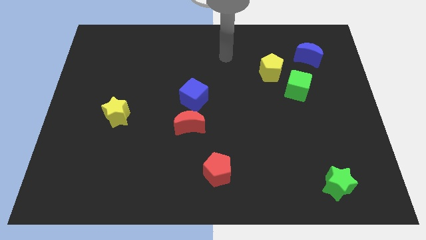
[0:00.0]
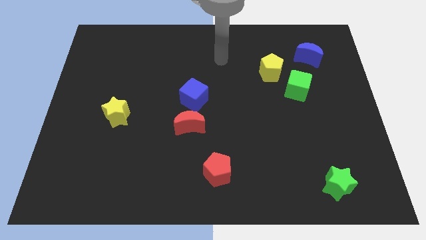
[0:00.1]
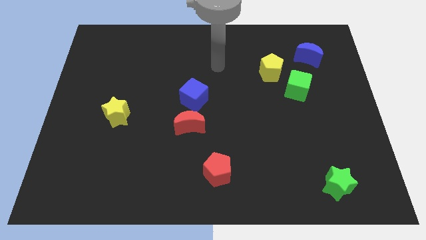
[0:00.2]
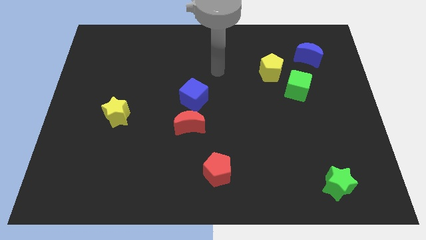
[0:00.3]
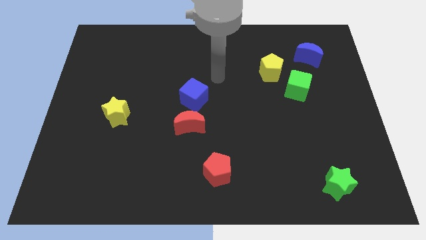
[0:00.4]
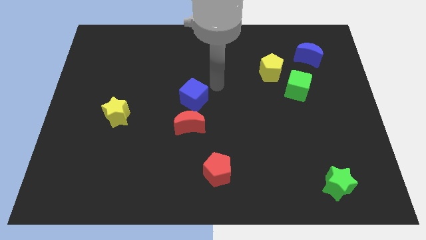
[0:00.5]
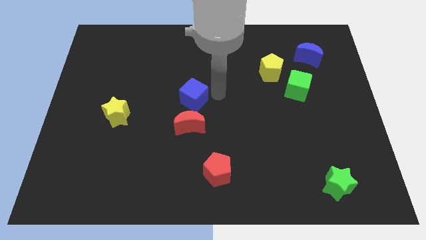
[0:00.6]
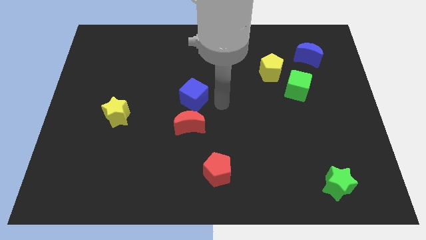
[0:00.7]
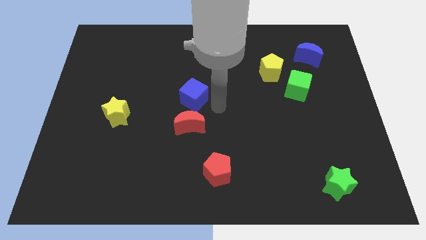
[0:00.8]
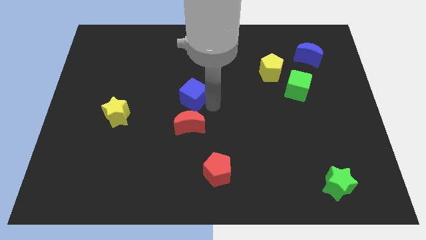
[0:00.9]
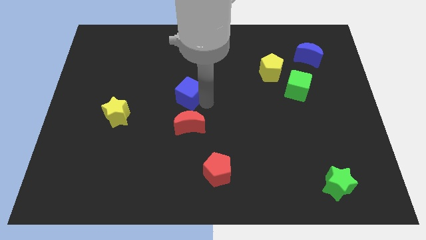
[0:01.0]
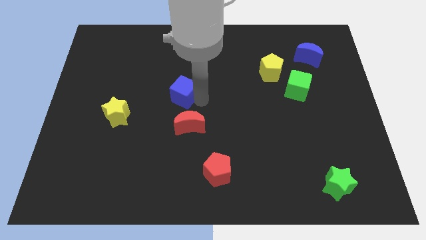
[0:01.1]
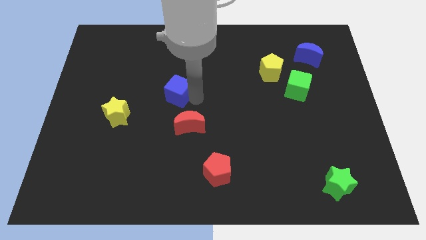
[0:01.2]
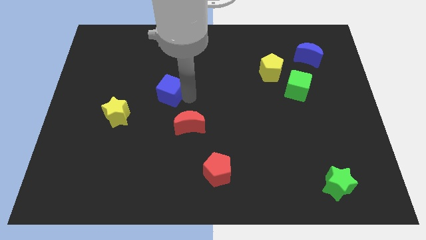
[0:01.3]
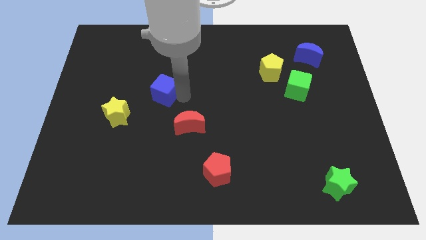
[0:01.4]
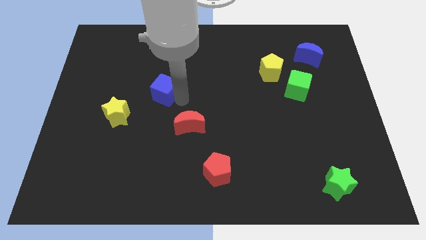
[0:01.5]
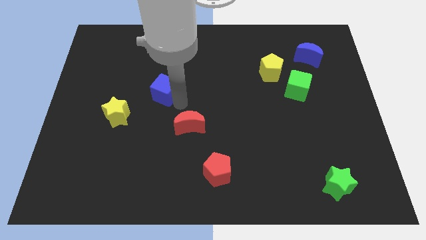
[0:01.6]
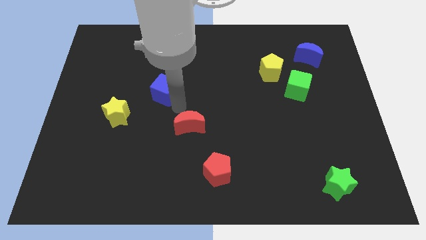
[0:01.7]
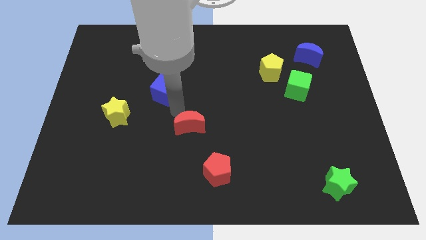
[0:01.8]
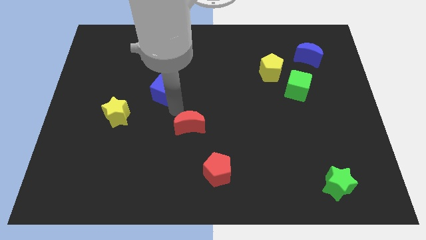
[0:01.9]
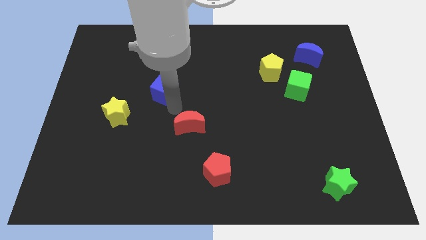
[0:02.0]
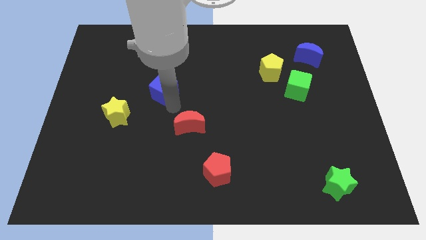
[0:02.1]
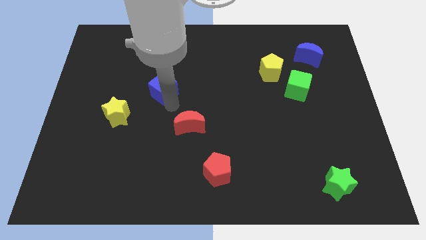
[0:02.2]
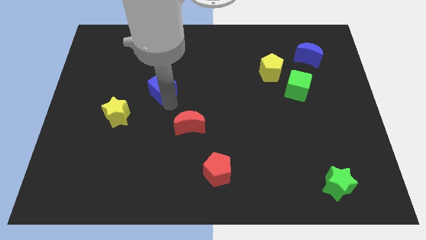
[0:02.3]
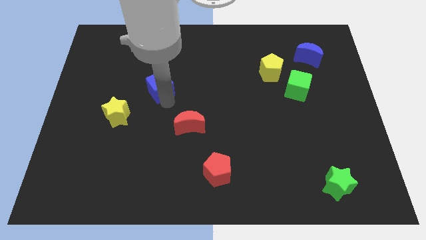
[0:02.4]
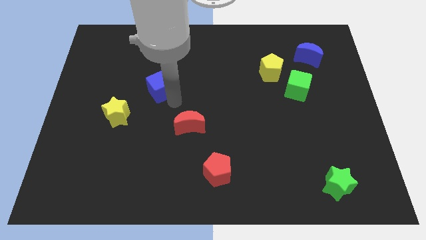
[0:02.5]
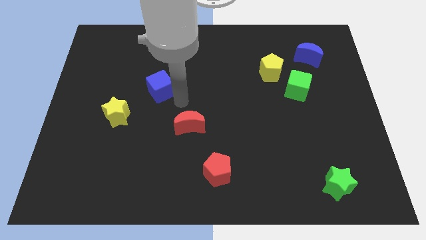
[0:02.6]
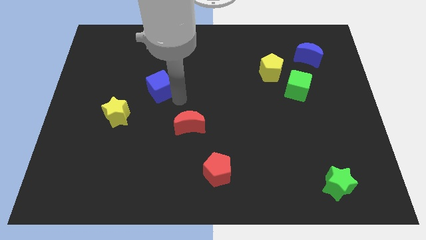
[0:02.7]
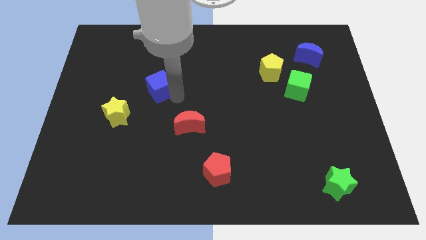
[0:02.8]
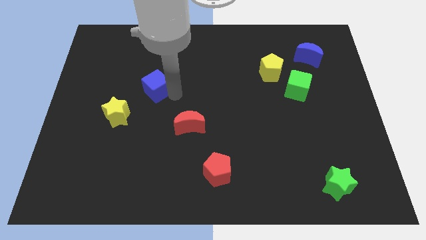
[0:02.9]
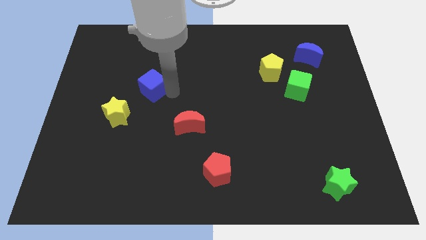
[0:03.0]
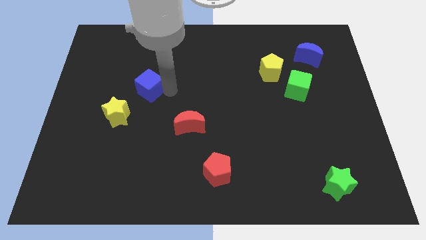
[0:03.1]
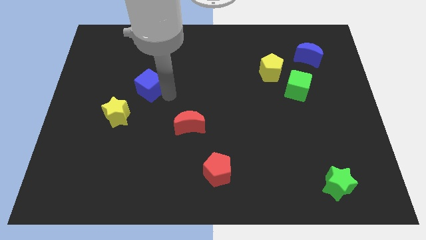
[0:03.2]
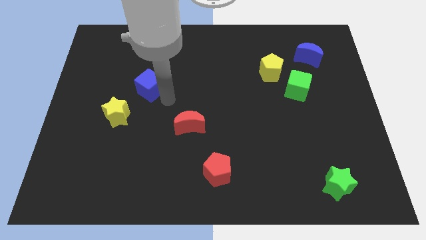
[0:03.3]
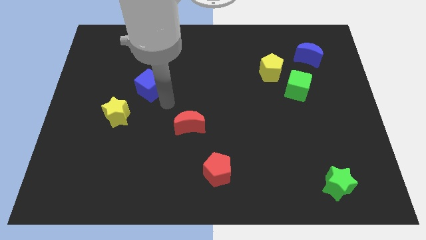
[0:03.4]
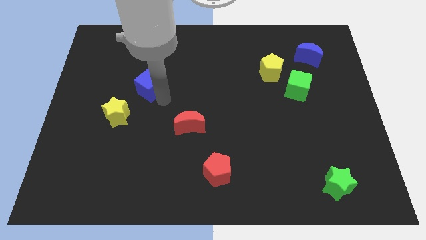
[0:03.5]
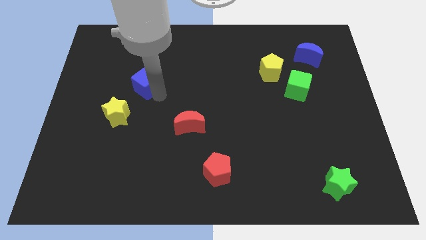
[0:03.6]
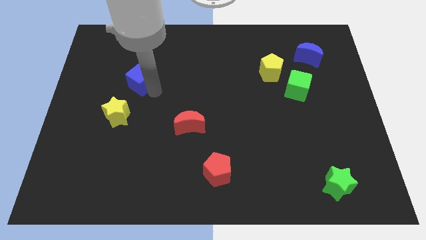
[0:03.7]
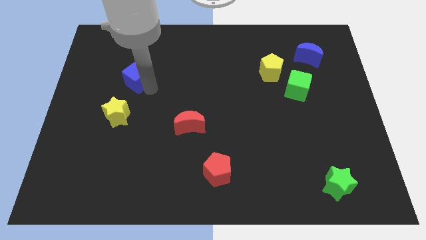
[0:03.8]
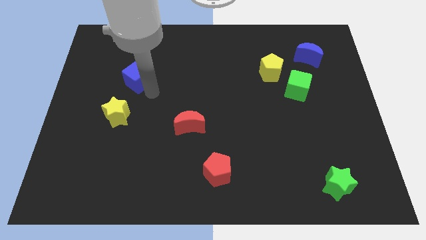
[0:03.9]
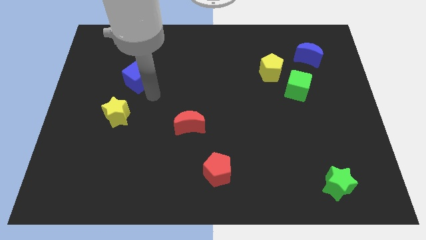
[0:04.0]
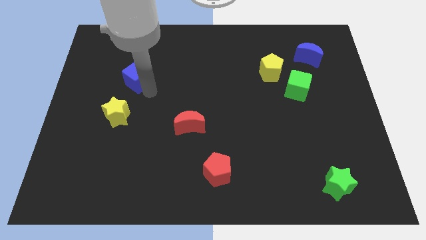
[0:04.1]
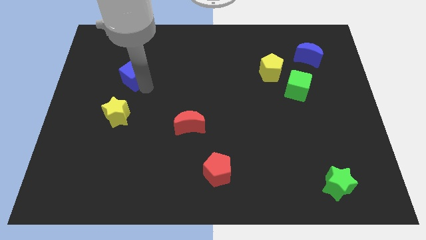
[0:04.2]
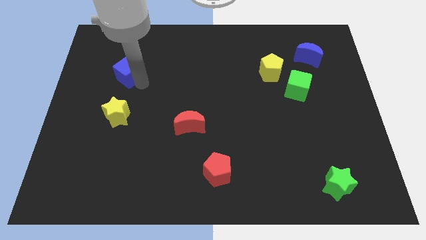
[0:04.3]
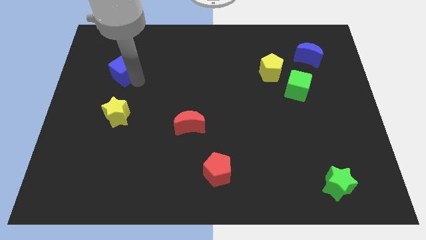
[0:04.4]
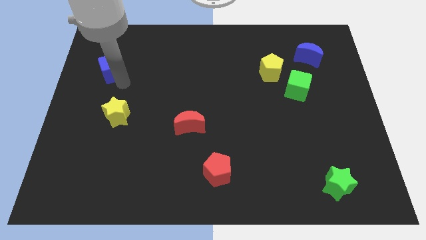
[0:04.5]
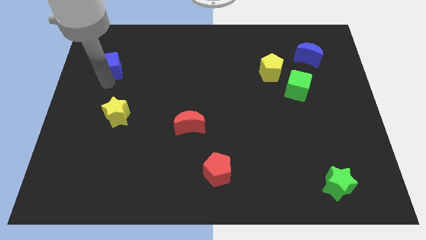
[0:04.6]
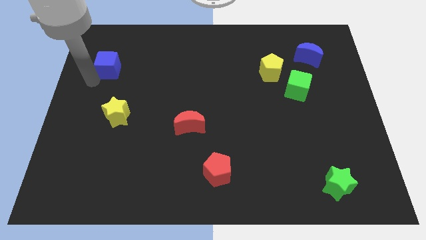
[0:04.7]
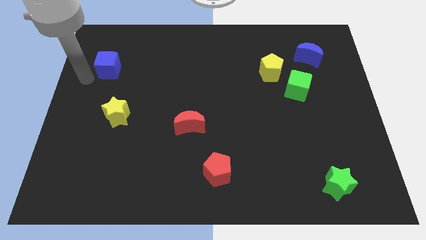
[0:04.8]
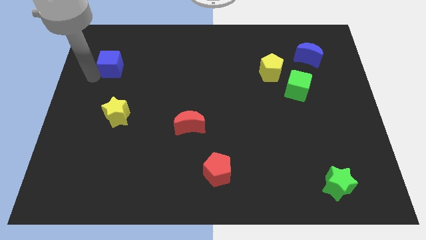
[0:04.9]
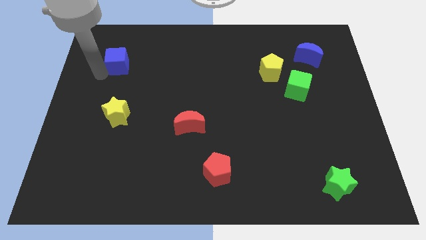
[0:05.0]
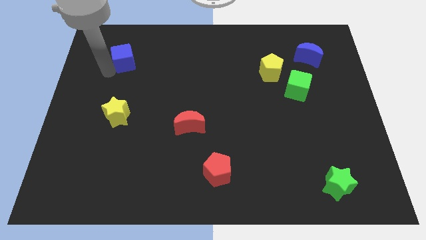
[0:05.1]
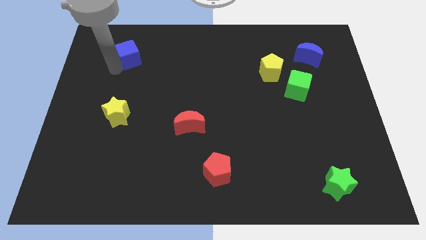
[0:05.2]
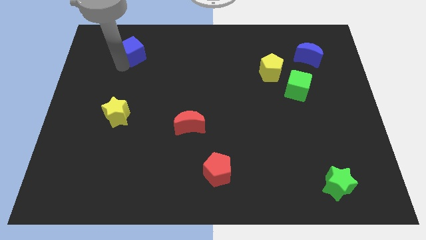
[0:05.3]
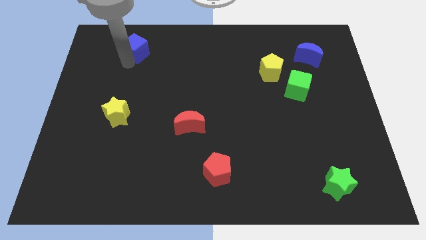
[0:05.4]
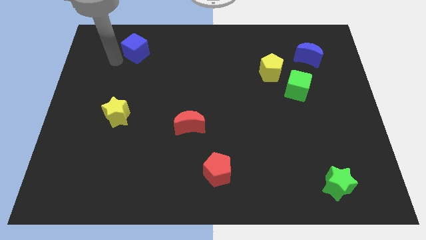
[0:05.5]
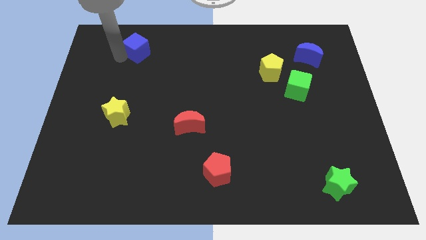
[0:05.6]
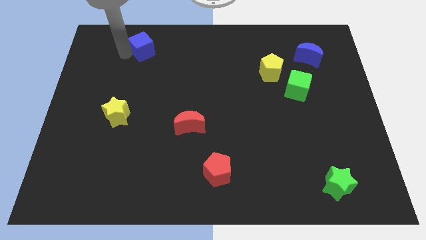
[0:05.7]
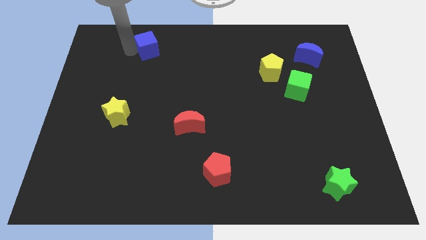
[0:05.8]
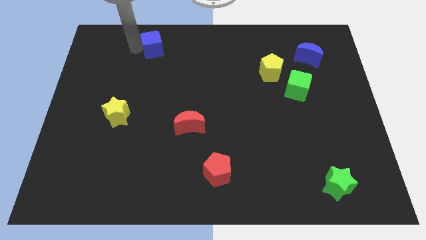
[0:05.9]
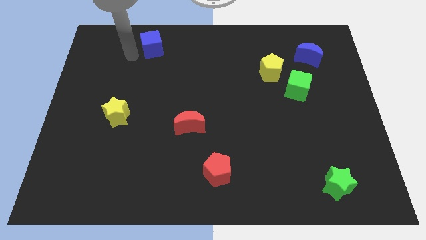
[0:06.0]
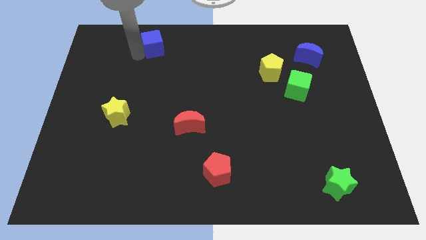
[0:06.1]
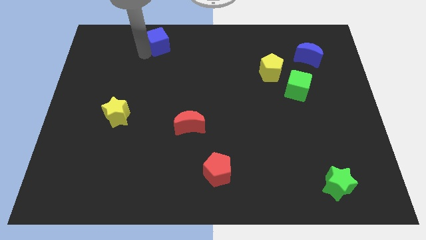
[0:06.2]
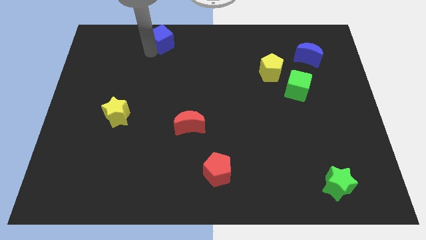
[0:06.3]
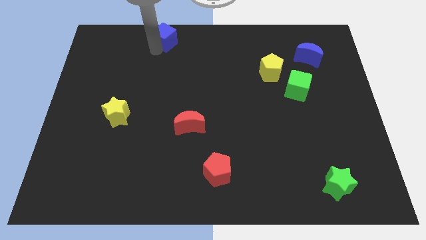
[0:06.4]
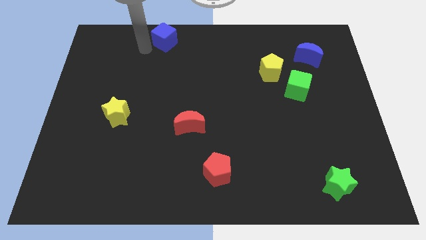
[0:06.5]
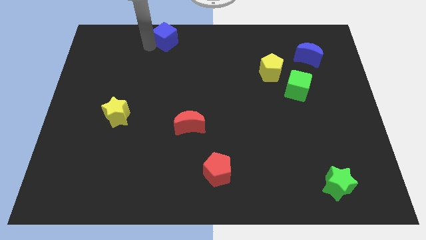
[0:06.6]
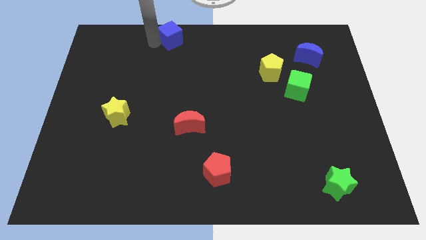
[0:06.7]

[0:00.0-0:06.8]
move the blue cube to the top
